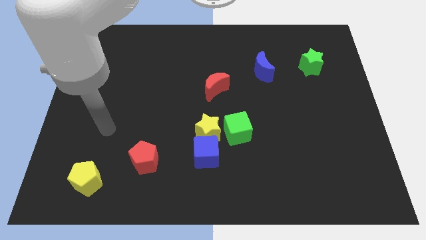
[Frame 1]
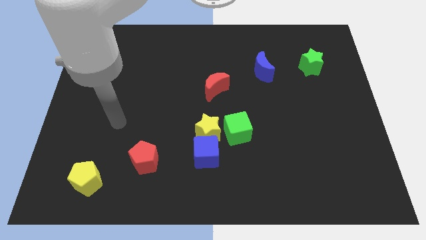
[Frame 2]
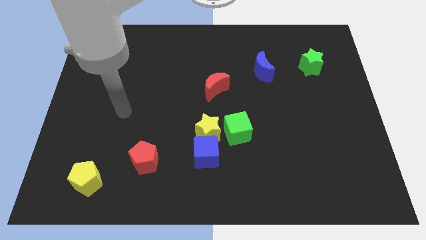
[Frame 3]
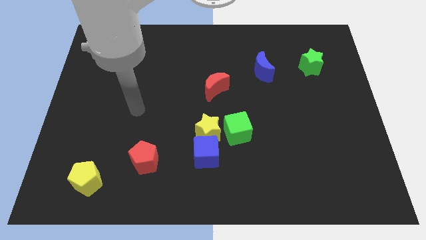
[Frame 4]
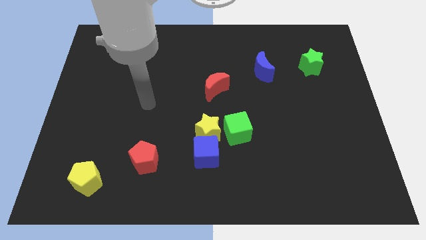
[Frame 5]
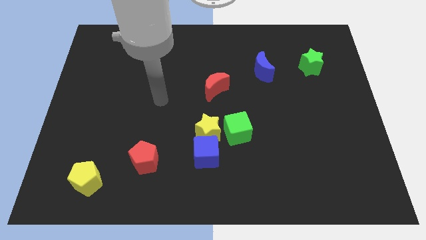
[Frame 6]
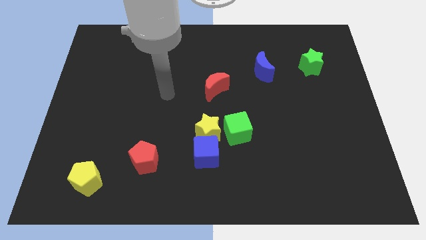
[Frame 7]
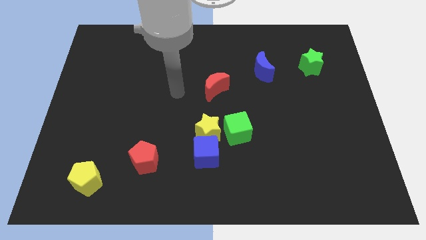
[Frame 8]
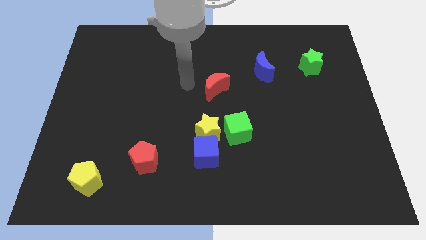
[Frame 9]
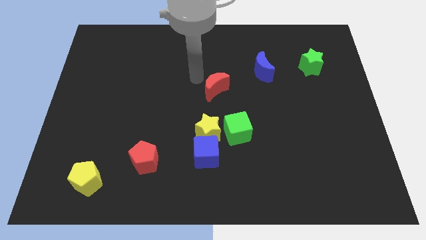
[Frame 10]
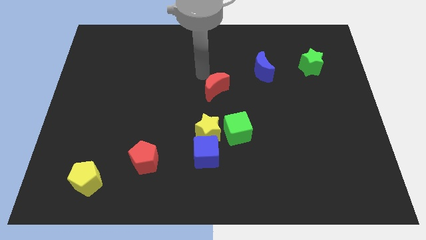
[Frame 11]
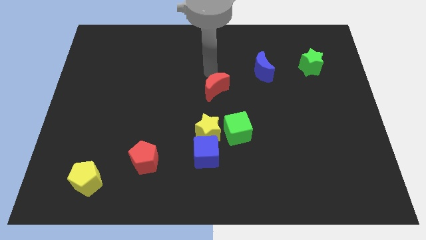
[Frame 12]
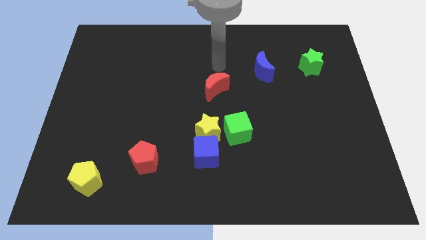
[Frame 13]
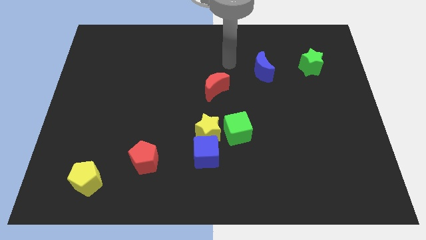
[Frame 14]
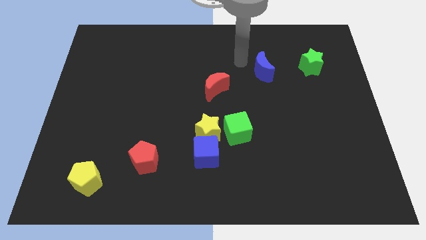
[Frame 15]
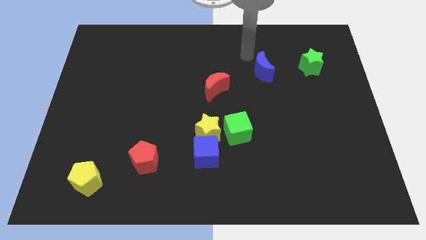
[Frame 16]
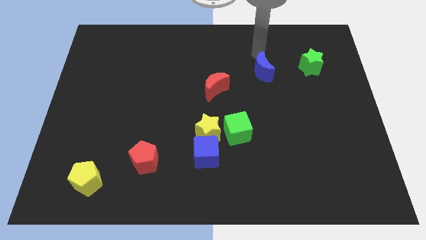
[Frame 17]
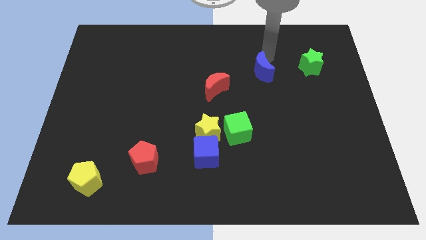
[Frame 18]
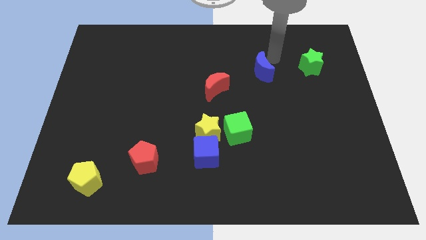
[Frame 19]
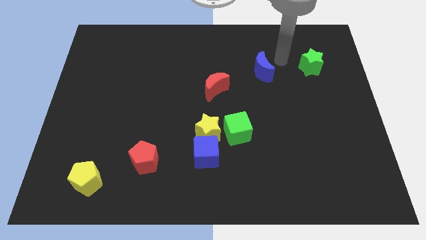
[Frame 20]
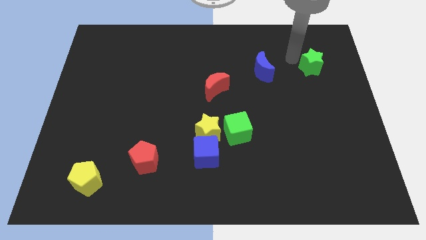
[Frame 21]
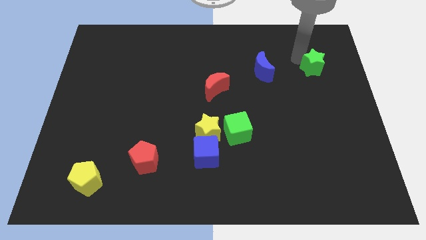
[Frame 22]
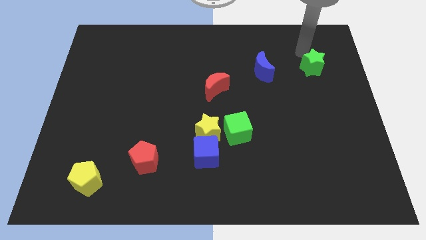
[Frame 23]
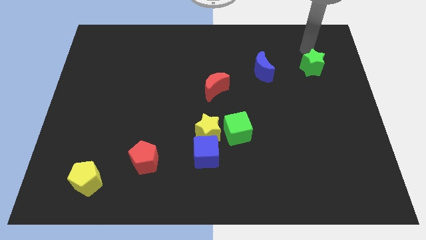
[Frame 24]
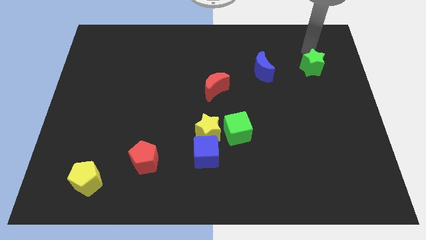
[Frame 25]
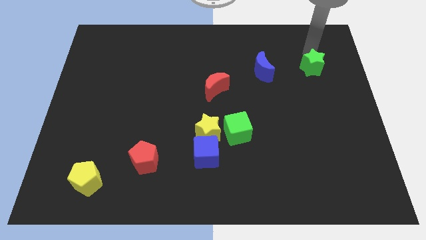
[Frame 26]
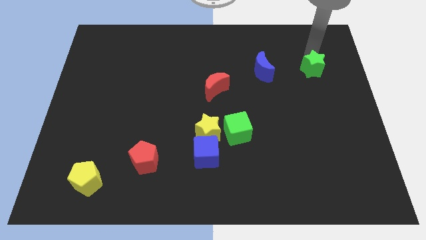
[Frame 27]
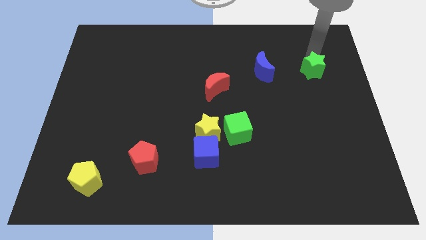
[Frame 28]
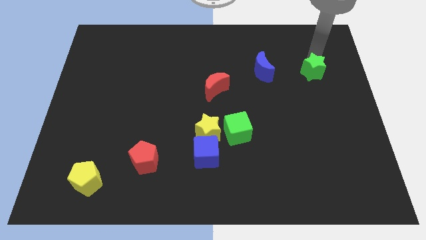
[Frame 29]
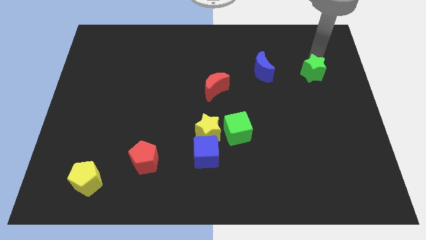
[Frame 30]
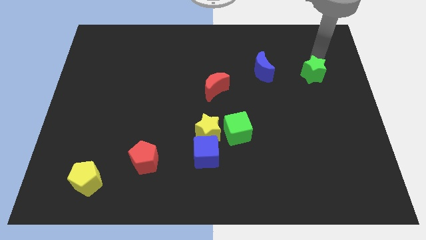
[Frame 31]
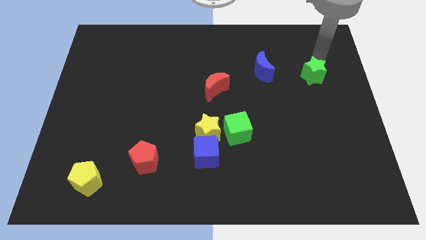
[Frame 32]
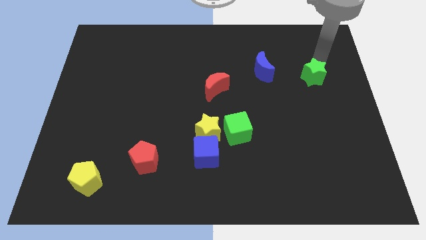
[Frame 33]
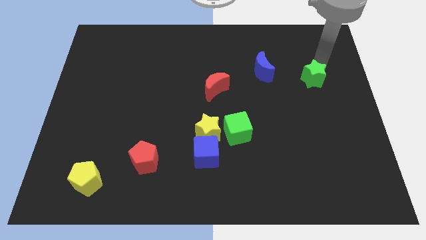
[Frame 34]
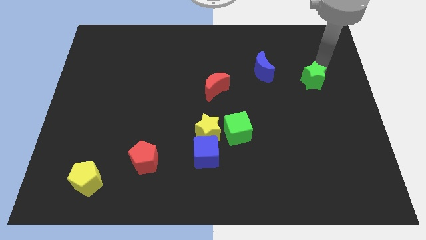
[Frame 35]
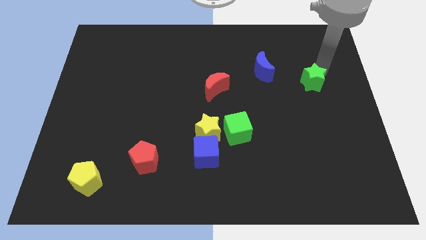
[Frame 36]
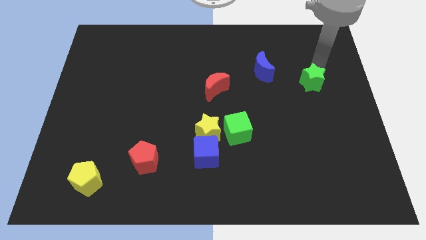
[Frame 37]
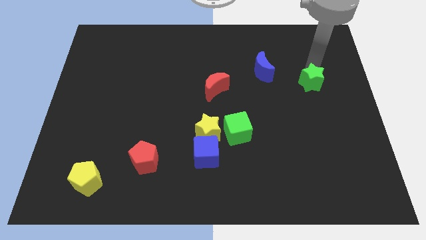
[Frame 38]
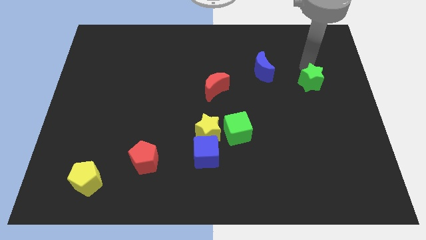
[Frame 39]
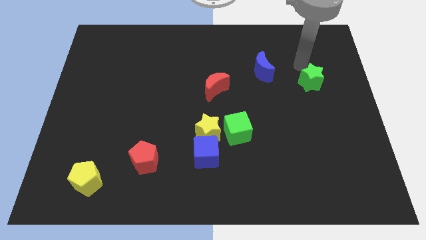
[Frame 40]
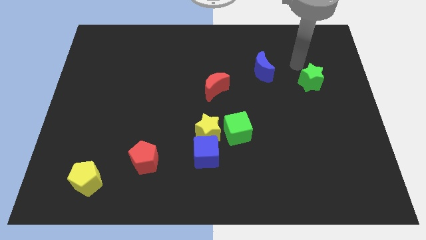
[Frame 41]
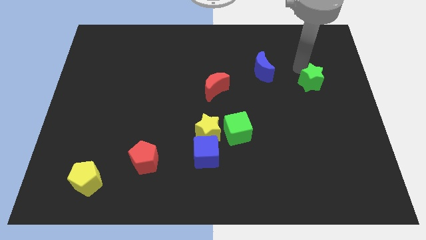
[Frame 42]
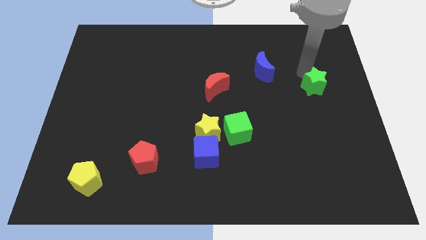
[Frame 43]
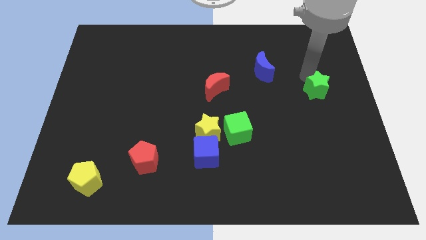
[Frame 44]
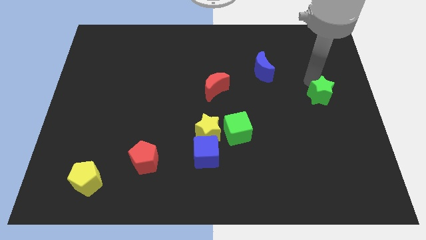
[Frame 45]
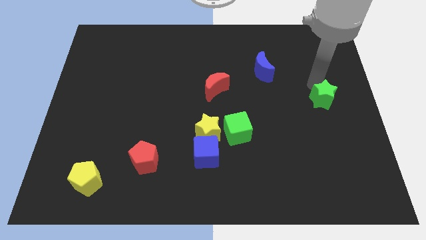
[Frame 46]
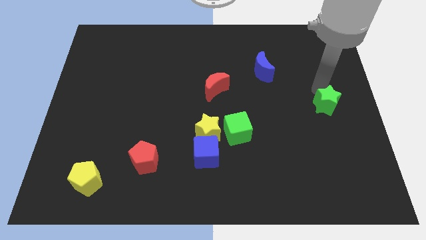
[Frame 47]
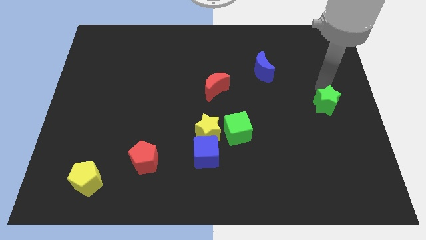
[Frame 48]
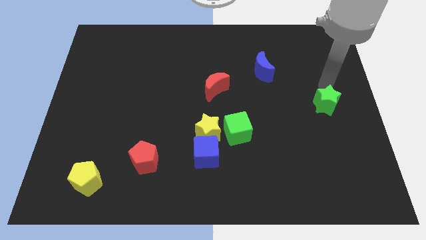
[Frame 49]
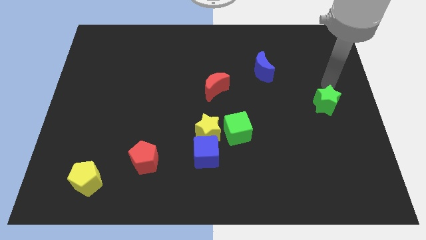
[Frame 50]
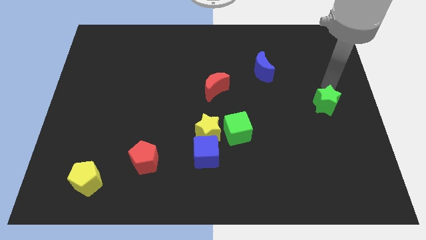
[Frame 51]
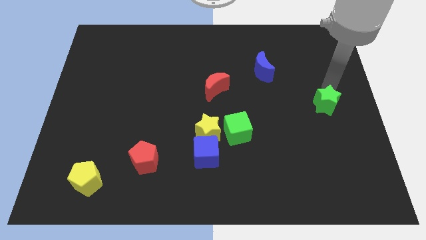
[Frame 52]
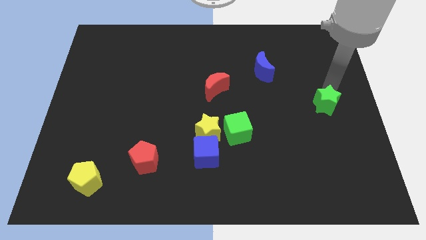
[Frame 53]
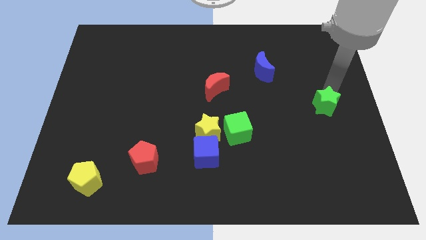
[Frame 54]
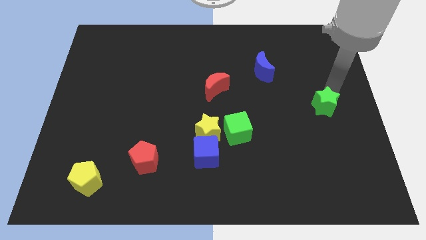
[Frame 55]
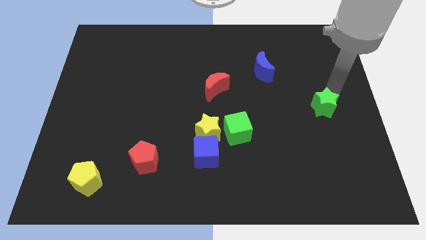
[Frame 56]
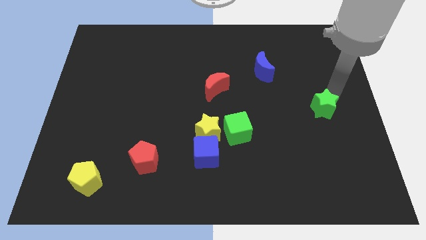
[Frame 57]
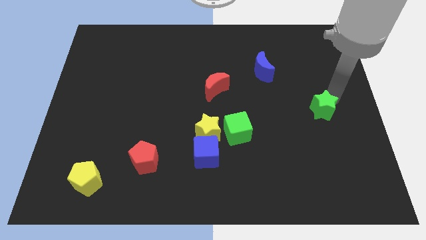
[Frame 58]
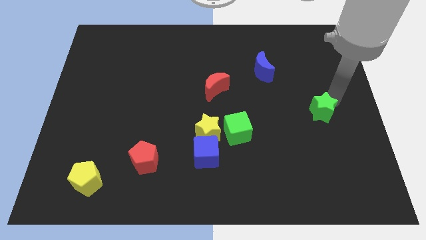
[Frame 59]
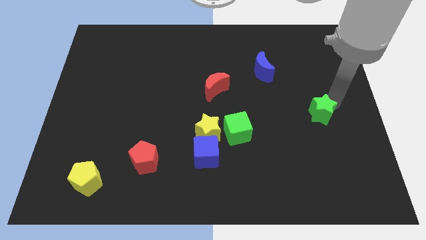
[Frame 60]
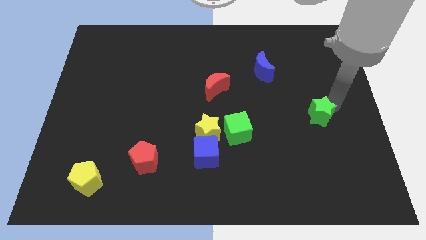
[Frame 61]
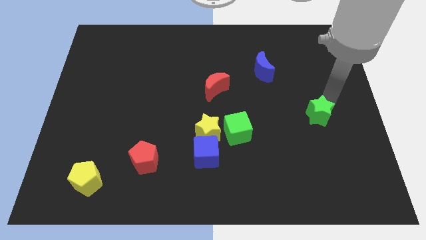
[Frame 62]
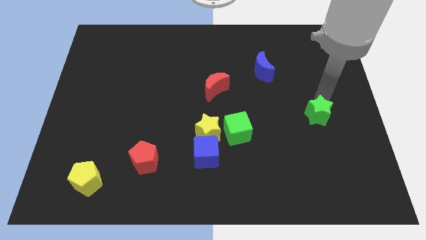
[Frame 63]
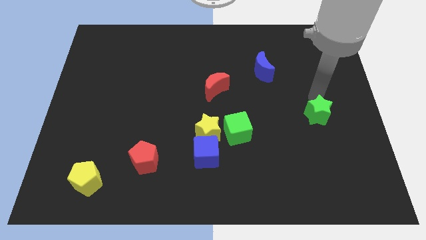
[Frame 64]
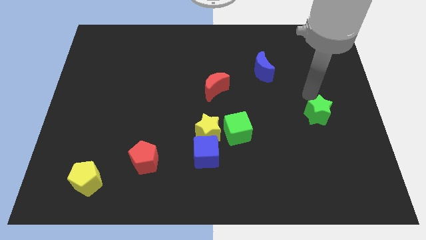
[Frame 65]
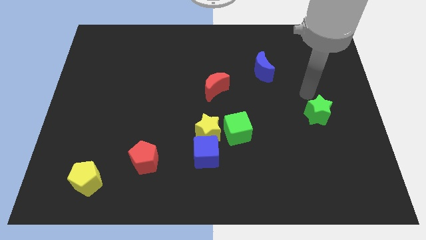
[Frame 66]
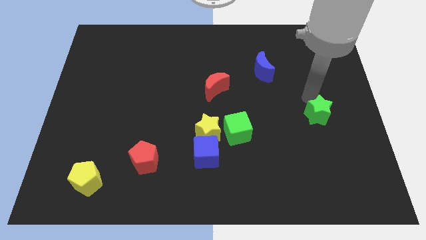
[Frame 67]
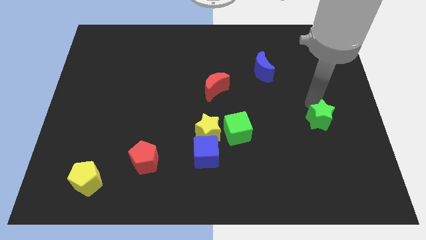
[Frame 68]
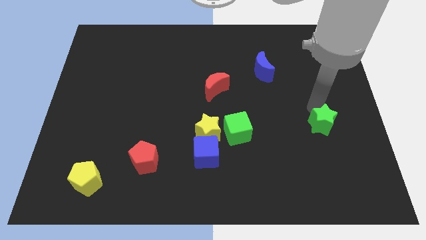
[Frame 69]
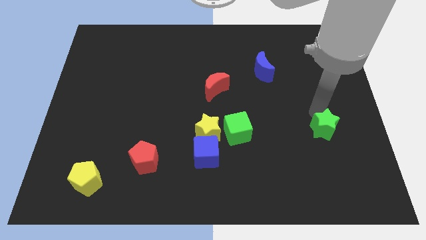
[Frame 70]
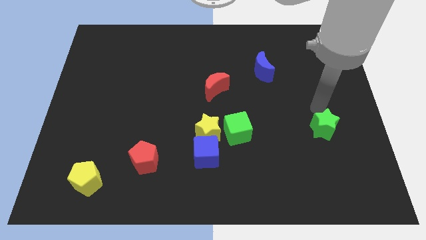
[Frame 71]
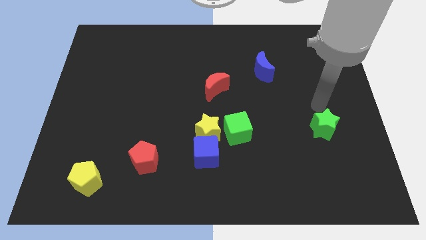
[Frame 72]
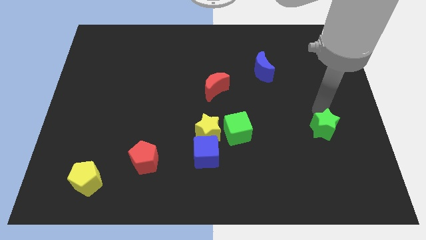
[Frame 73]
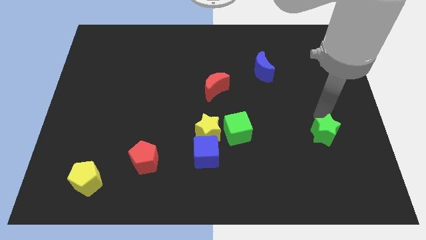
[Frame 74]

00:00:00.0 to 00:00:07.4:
move the green star downwards

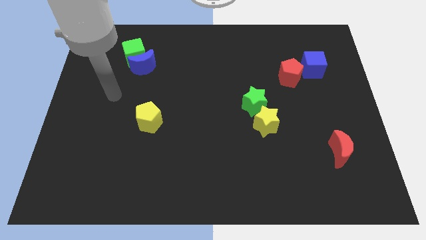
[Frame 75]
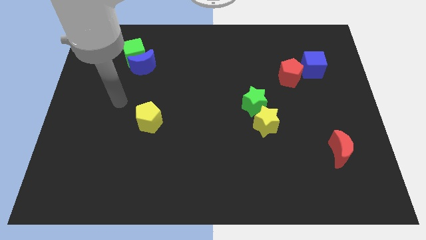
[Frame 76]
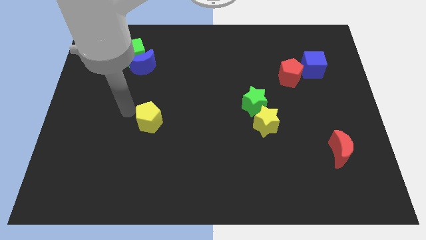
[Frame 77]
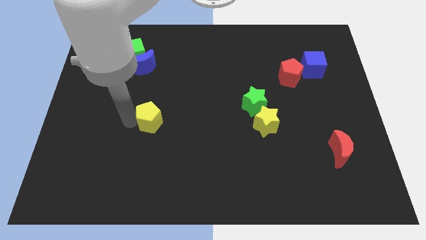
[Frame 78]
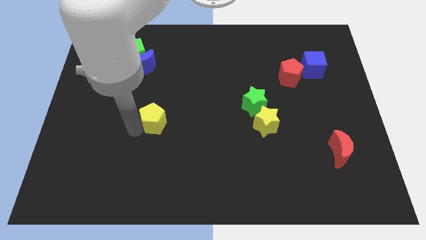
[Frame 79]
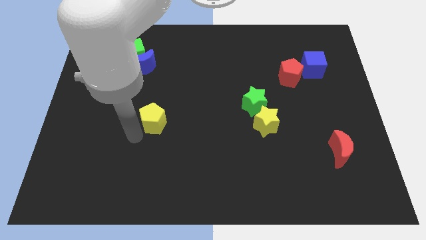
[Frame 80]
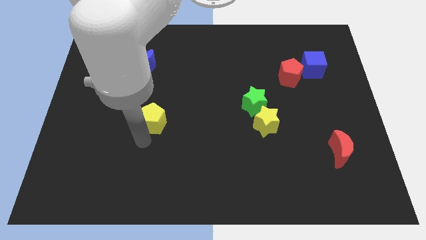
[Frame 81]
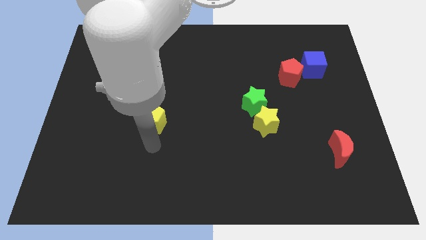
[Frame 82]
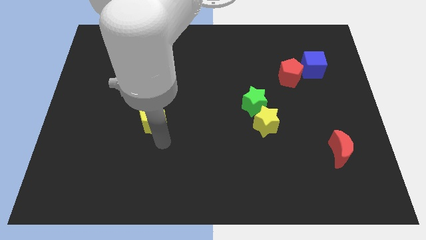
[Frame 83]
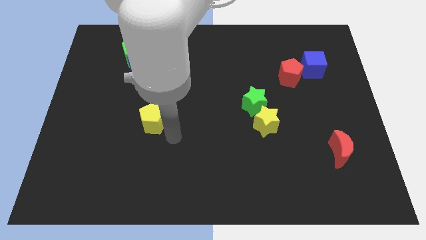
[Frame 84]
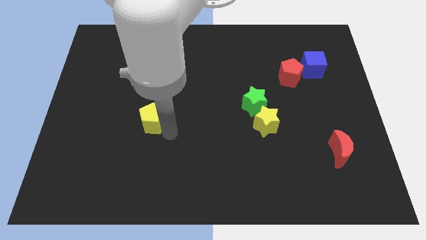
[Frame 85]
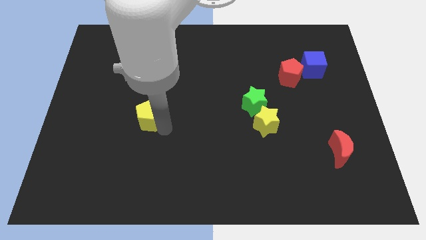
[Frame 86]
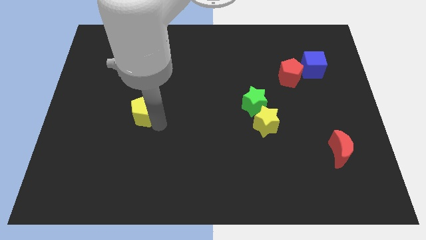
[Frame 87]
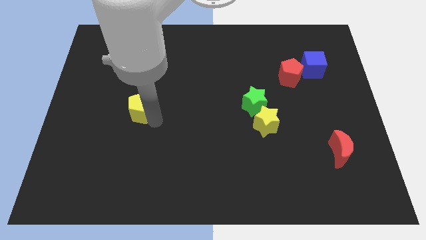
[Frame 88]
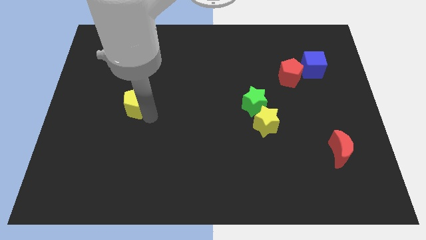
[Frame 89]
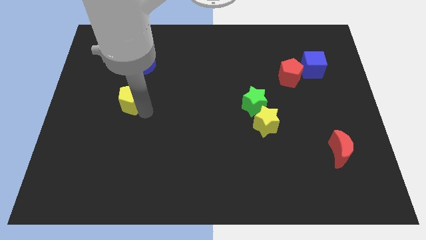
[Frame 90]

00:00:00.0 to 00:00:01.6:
push the yellow pentagon up and to the left diagonally somewhat
